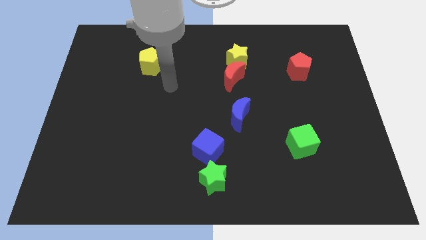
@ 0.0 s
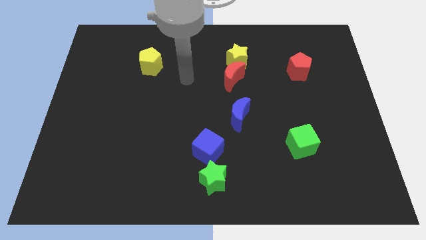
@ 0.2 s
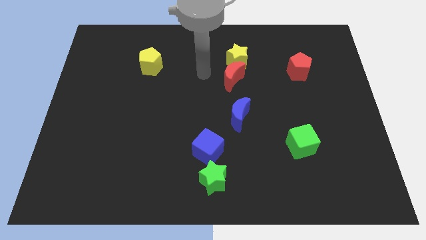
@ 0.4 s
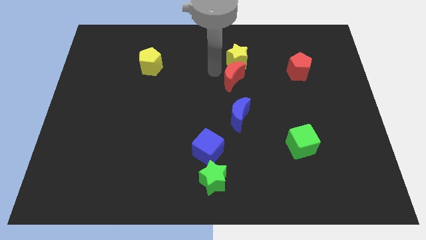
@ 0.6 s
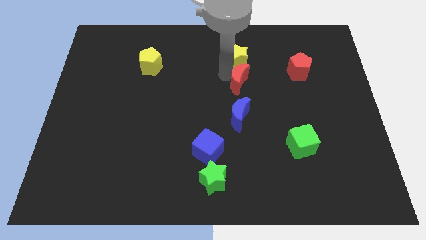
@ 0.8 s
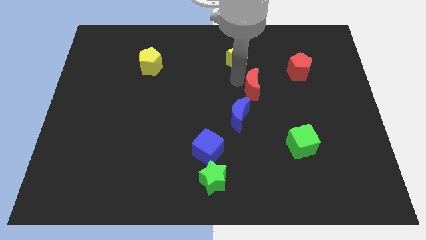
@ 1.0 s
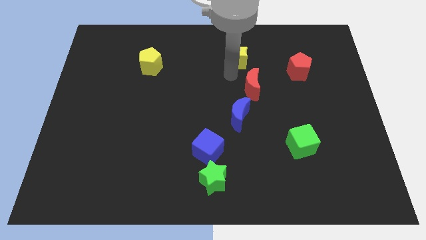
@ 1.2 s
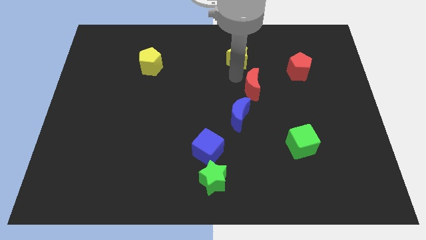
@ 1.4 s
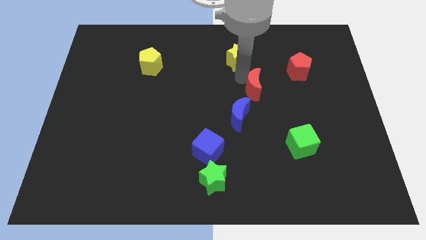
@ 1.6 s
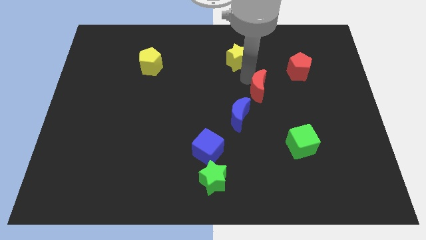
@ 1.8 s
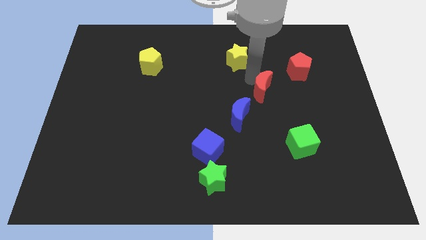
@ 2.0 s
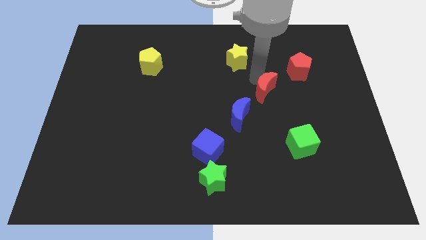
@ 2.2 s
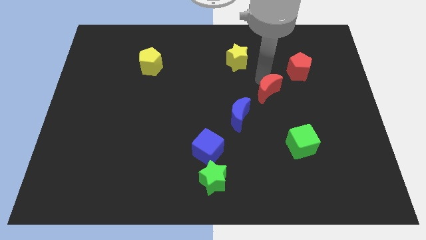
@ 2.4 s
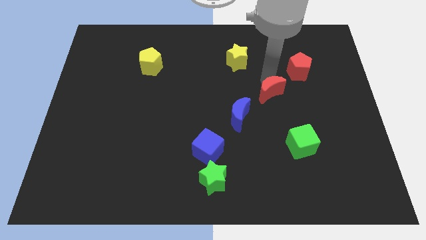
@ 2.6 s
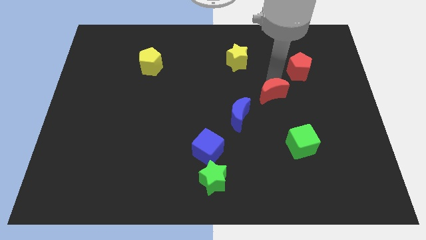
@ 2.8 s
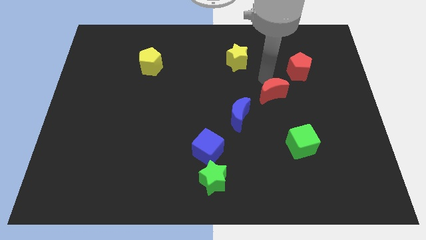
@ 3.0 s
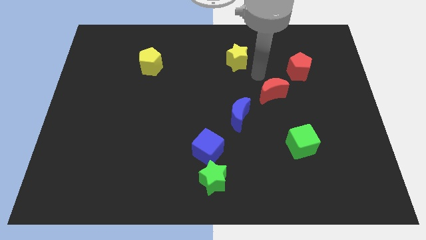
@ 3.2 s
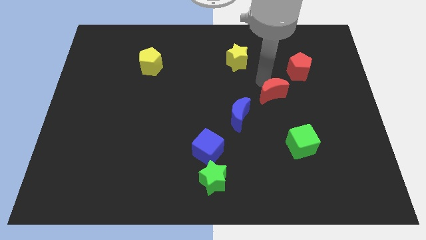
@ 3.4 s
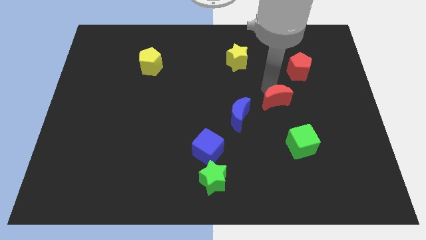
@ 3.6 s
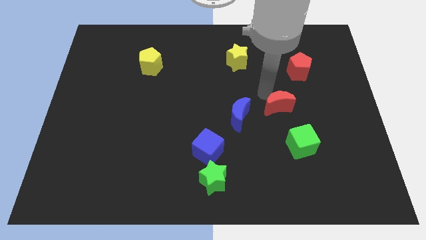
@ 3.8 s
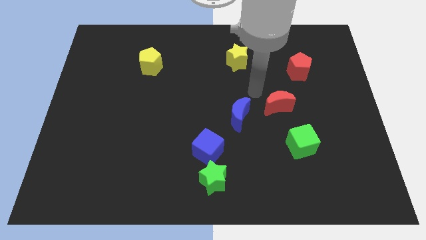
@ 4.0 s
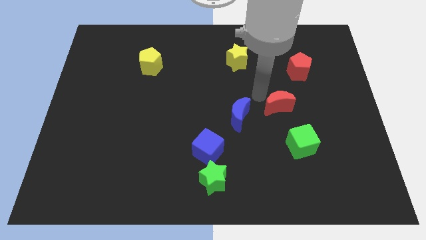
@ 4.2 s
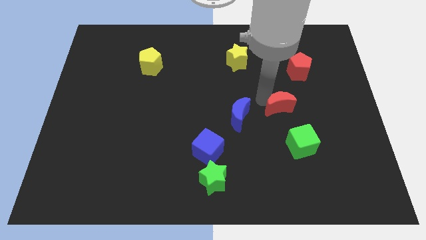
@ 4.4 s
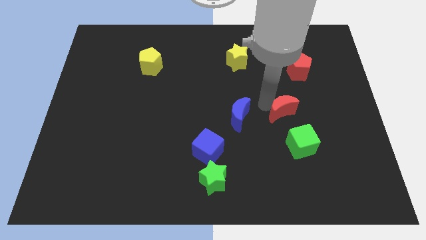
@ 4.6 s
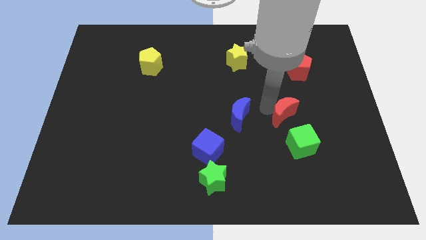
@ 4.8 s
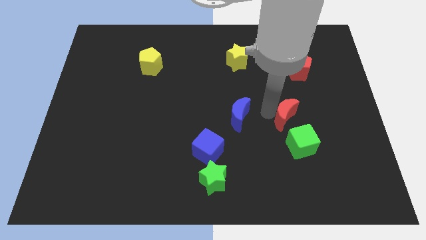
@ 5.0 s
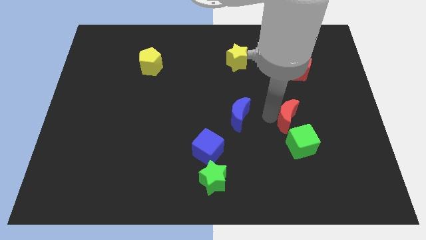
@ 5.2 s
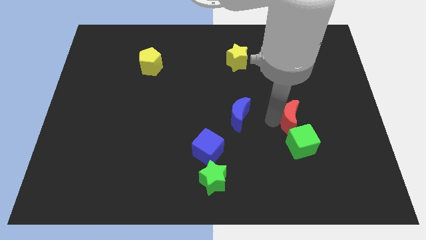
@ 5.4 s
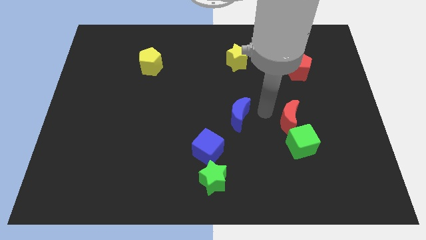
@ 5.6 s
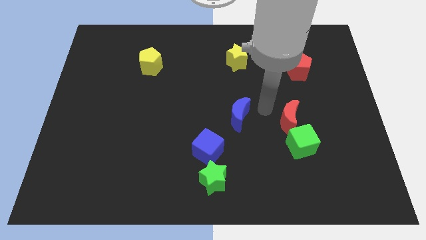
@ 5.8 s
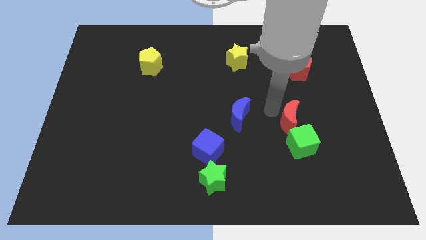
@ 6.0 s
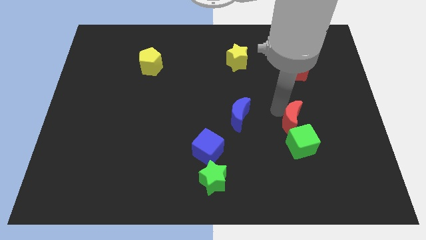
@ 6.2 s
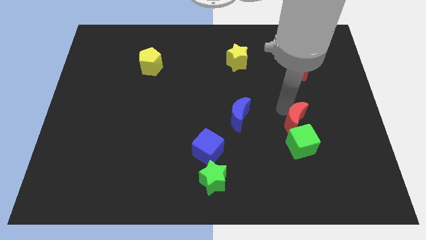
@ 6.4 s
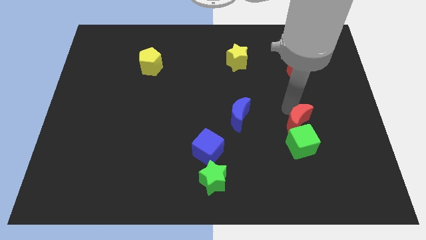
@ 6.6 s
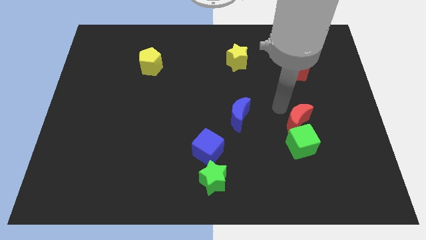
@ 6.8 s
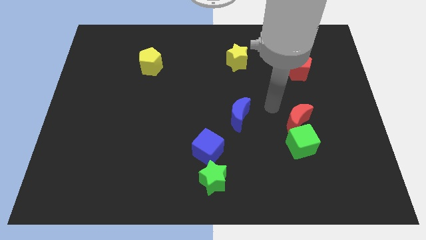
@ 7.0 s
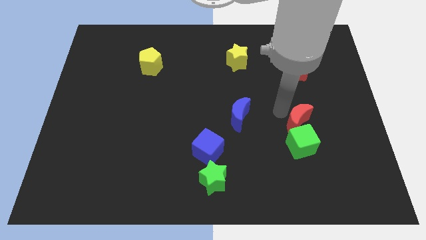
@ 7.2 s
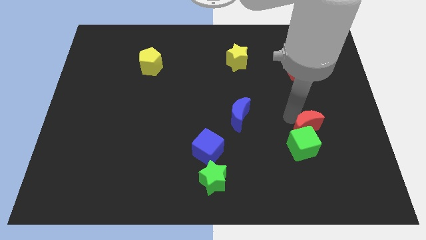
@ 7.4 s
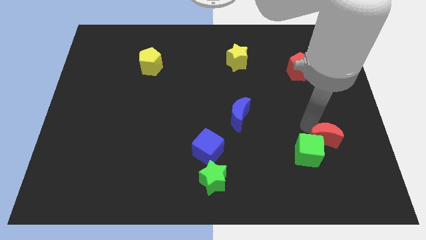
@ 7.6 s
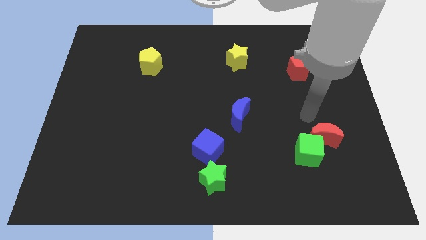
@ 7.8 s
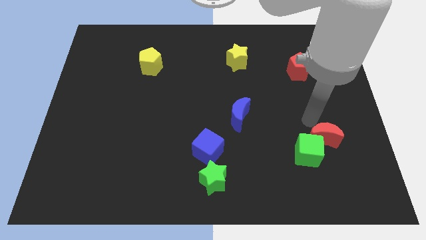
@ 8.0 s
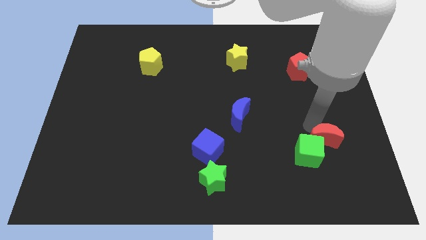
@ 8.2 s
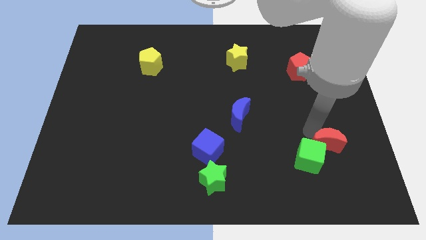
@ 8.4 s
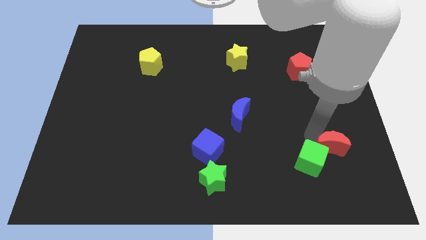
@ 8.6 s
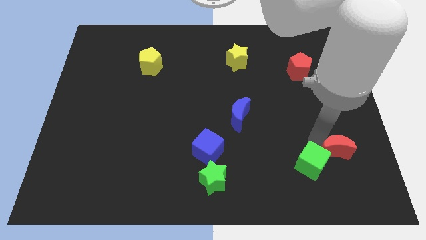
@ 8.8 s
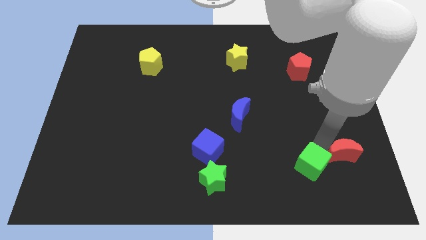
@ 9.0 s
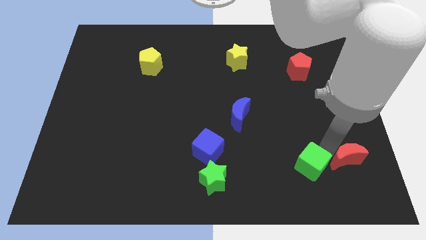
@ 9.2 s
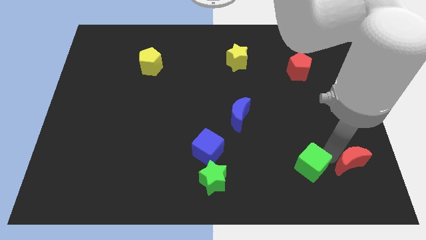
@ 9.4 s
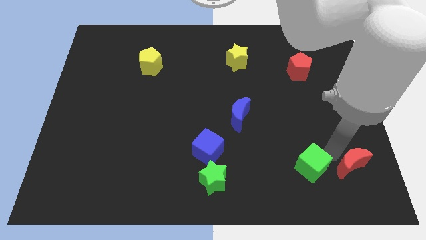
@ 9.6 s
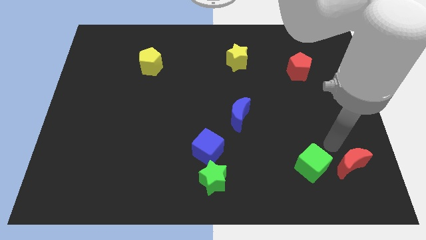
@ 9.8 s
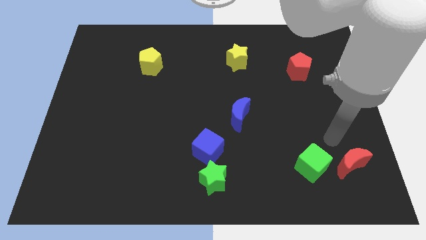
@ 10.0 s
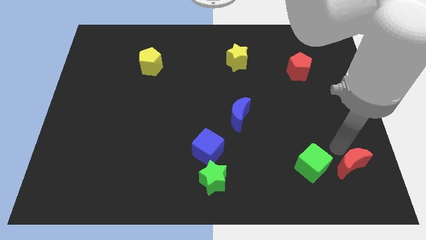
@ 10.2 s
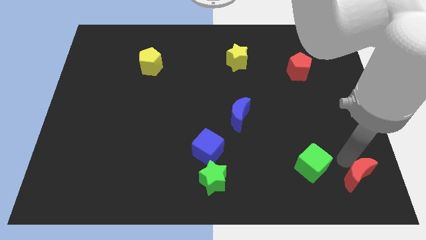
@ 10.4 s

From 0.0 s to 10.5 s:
move the red moon to the bottom right corner

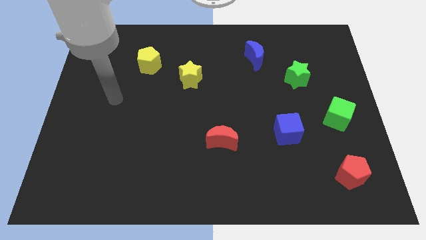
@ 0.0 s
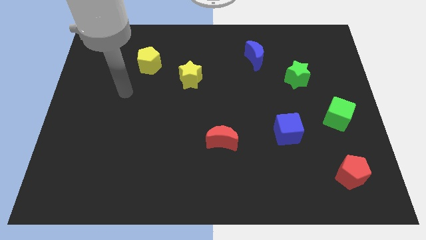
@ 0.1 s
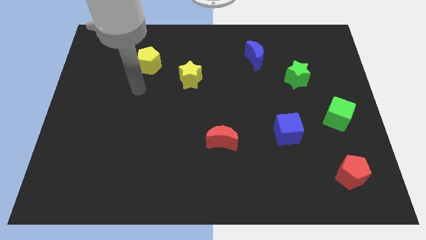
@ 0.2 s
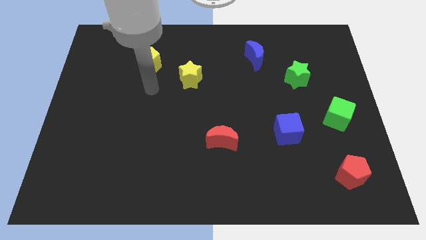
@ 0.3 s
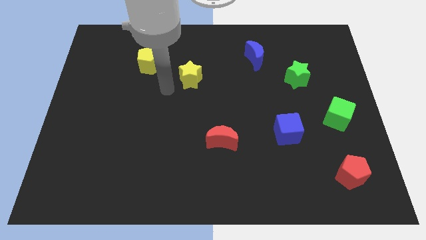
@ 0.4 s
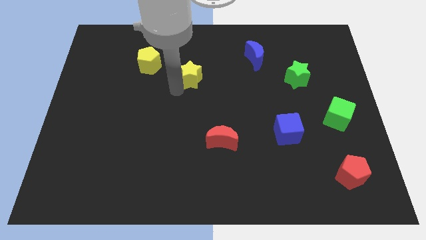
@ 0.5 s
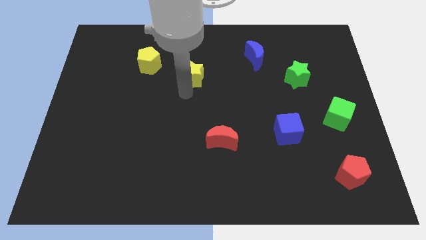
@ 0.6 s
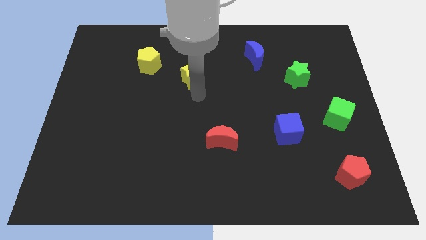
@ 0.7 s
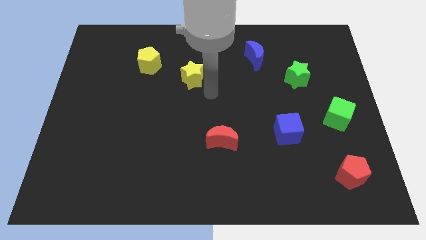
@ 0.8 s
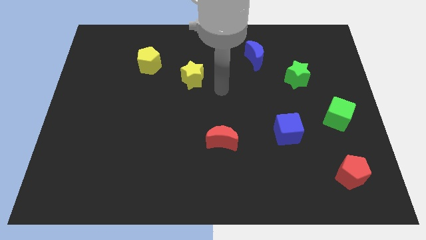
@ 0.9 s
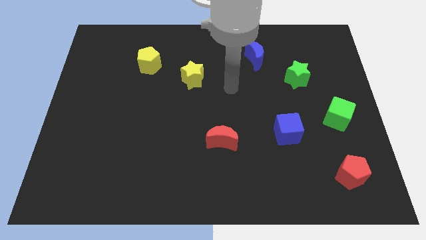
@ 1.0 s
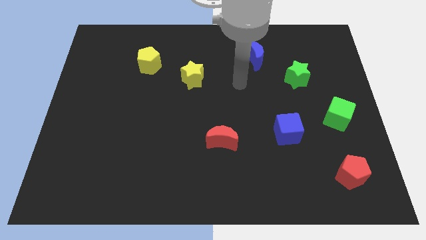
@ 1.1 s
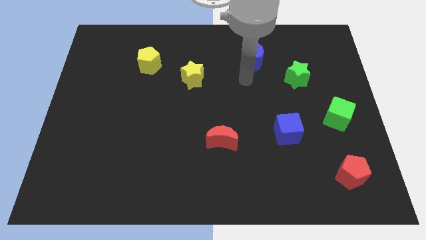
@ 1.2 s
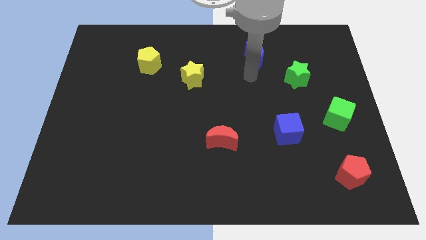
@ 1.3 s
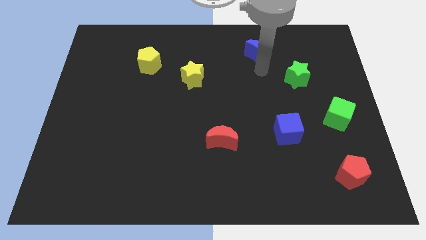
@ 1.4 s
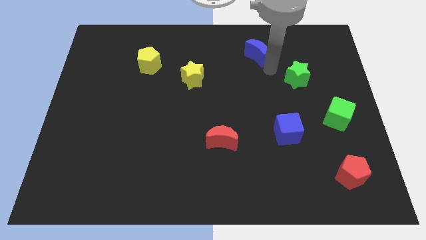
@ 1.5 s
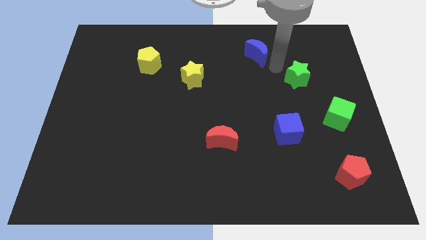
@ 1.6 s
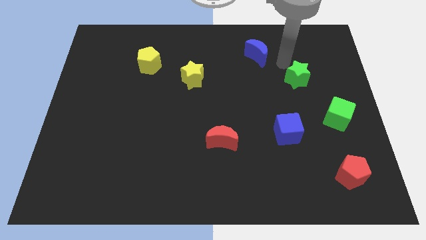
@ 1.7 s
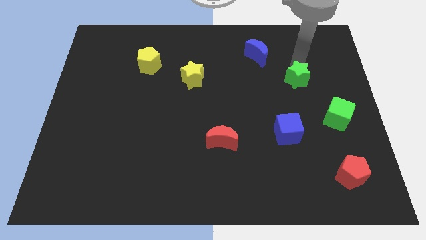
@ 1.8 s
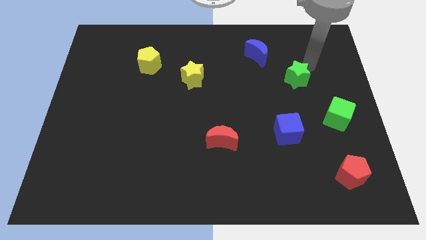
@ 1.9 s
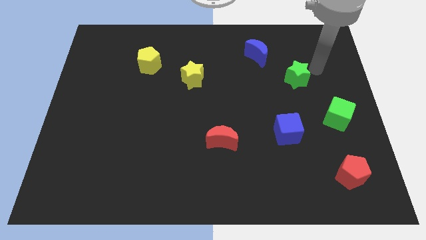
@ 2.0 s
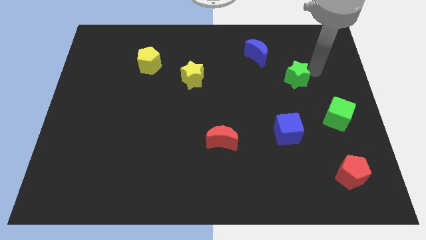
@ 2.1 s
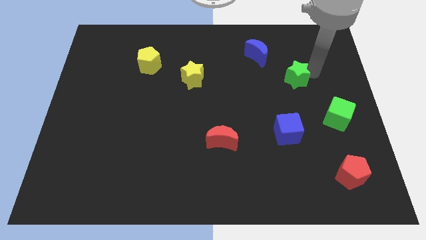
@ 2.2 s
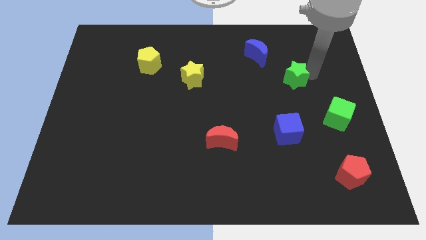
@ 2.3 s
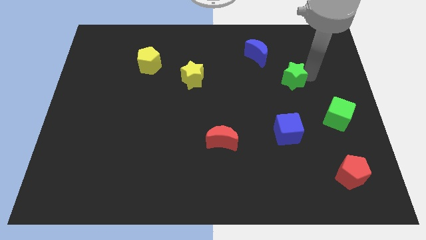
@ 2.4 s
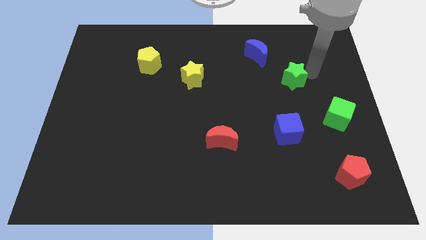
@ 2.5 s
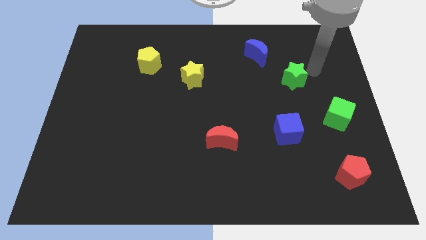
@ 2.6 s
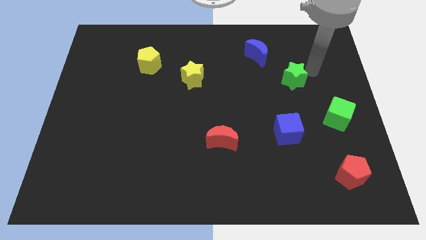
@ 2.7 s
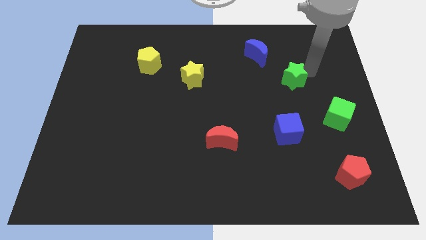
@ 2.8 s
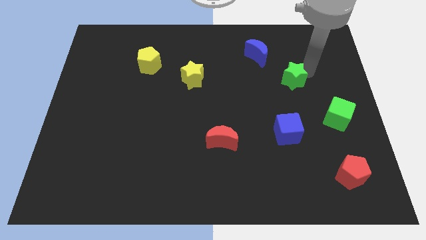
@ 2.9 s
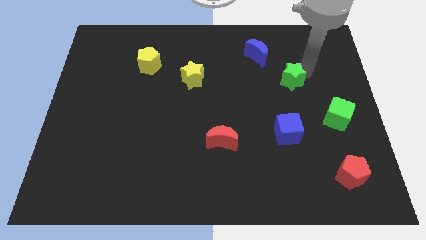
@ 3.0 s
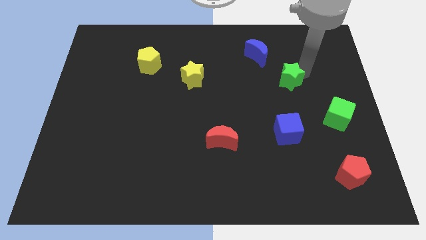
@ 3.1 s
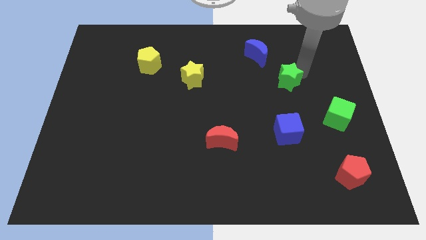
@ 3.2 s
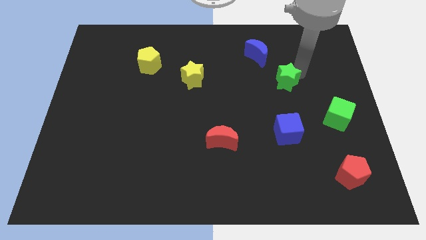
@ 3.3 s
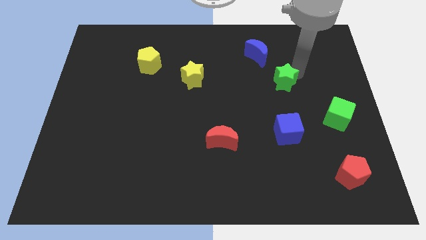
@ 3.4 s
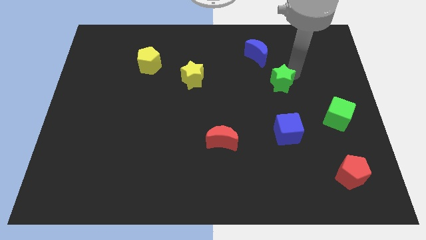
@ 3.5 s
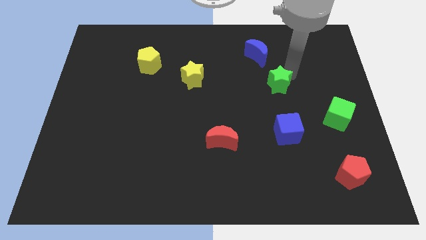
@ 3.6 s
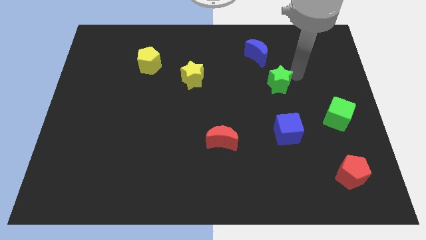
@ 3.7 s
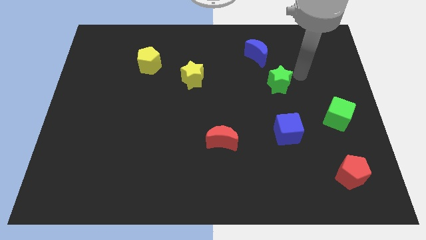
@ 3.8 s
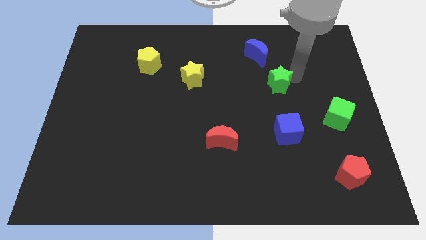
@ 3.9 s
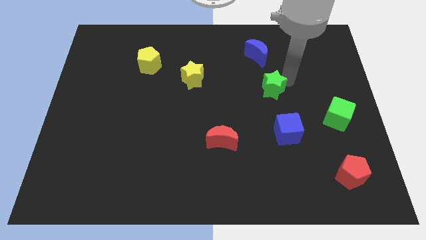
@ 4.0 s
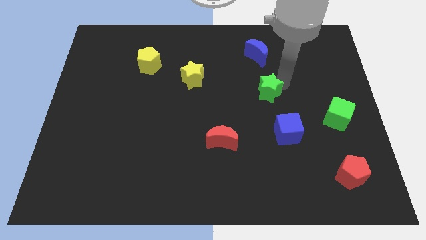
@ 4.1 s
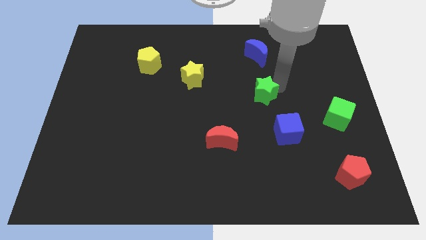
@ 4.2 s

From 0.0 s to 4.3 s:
put the green star to the middle
